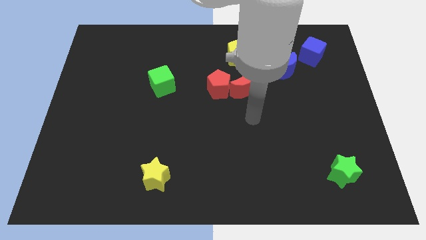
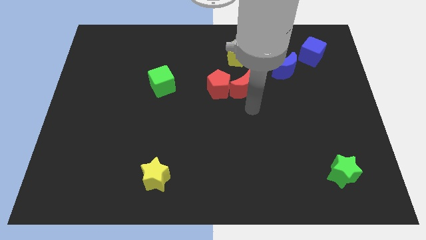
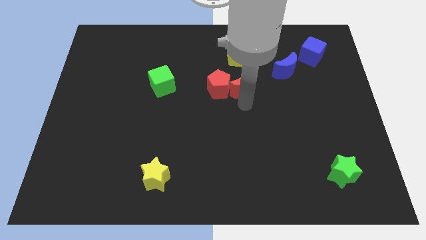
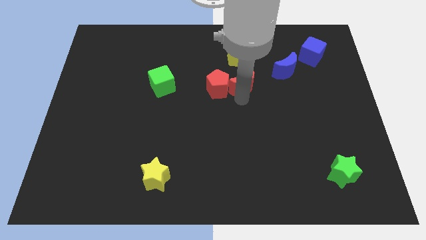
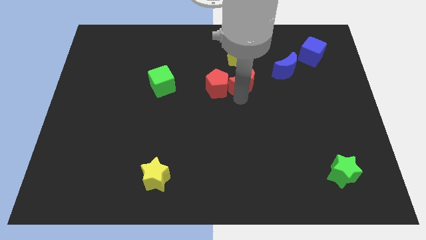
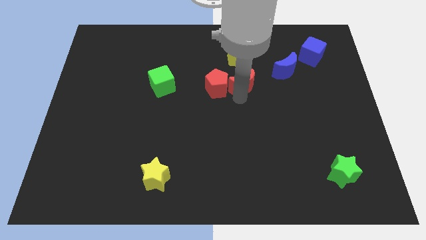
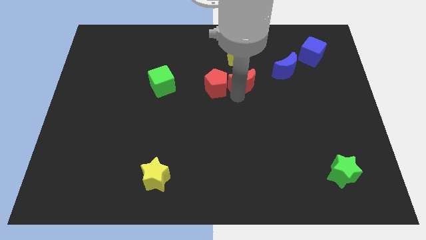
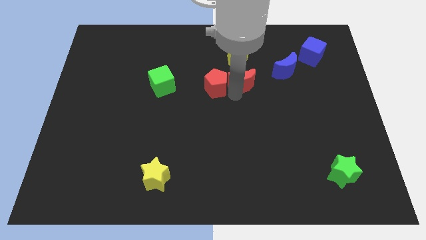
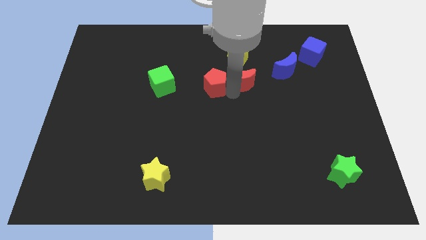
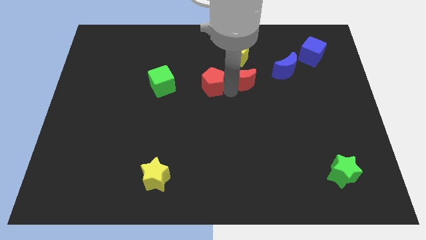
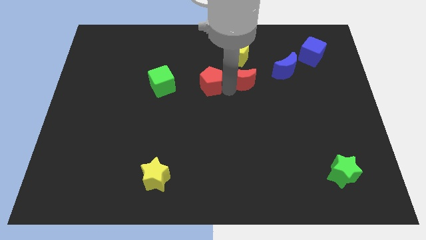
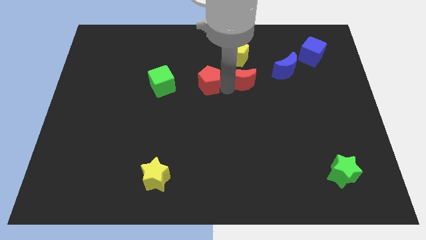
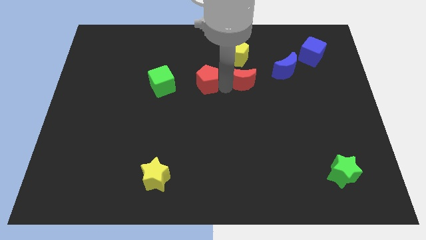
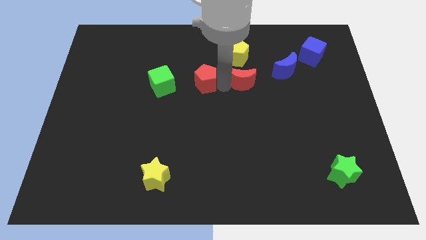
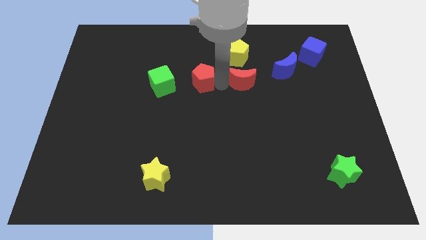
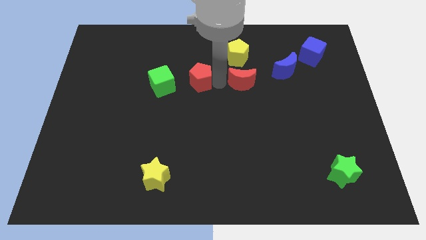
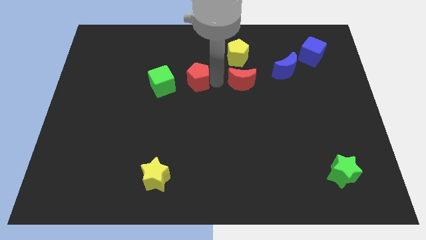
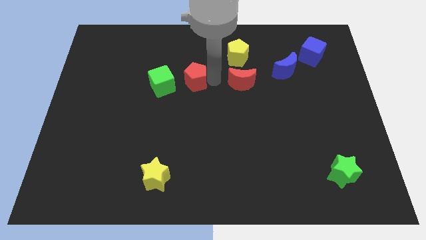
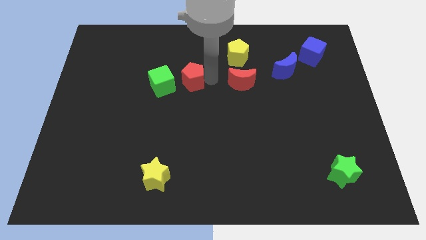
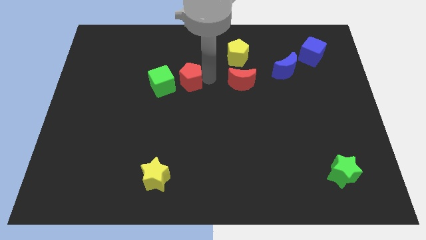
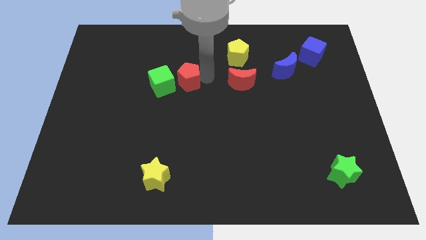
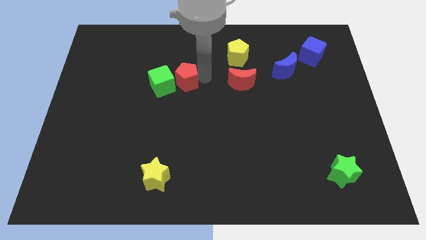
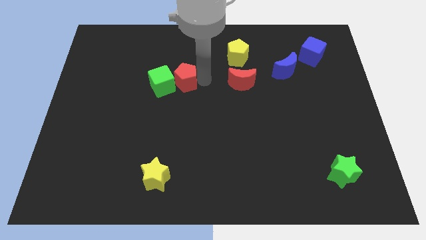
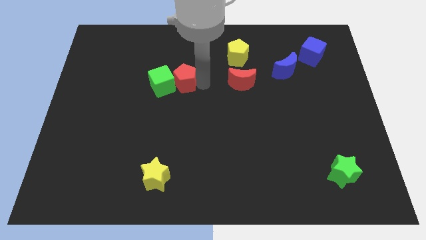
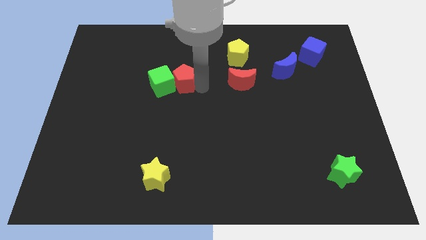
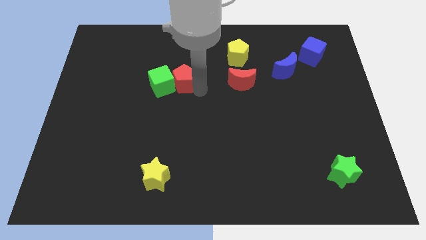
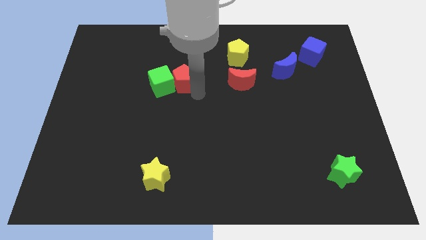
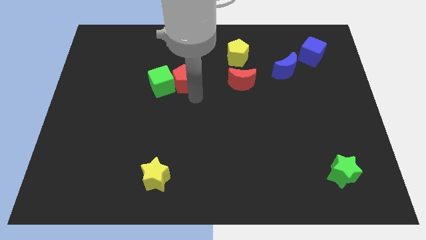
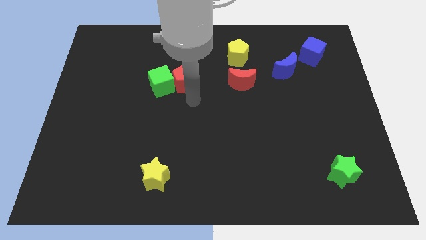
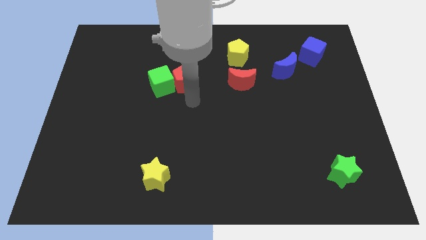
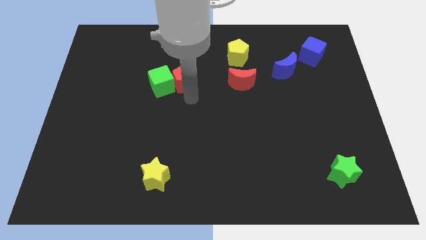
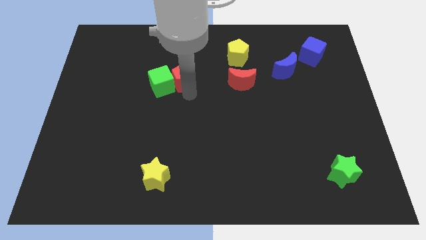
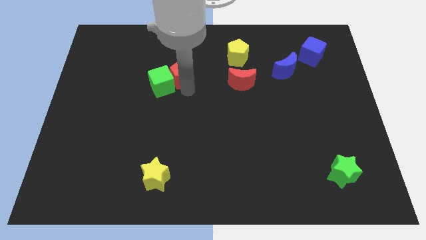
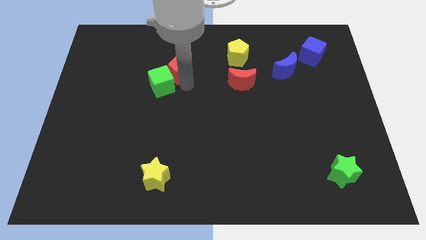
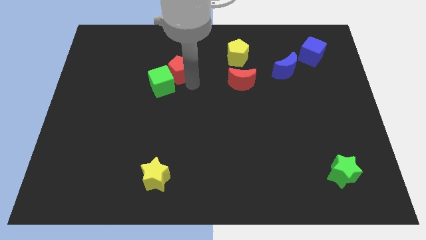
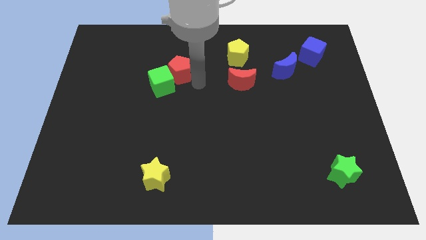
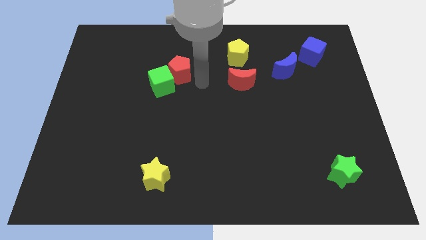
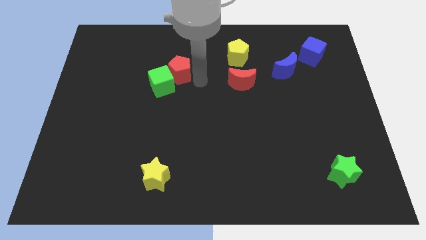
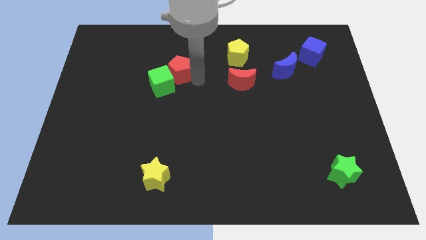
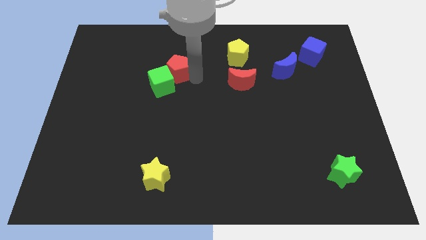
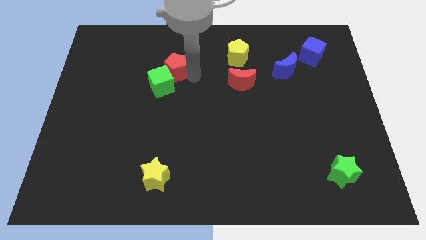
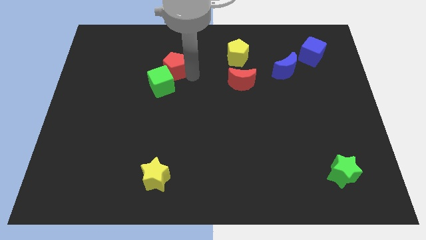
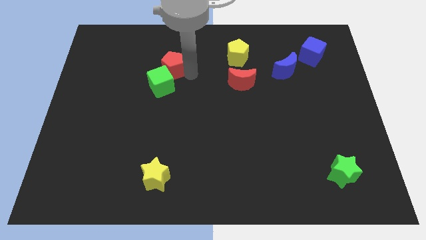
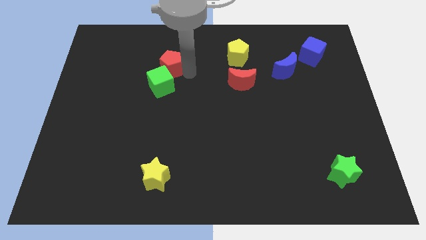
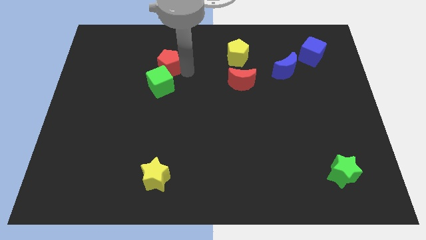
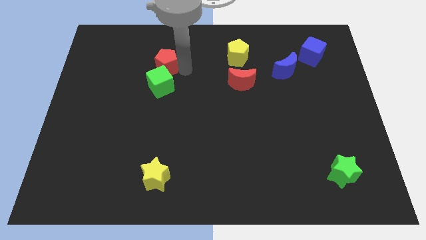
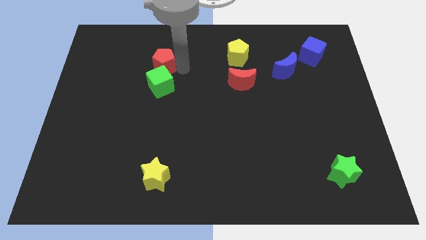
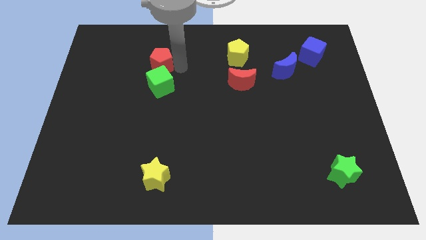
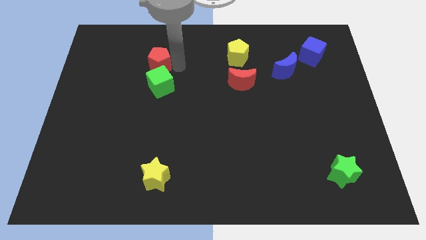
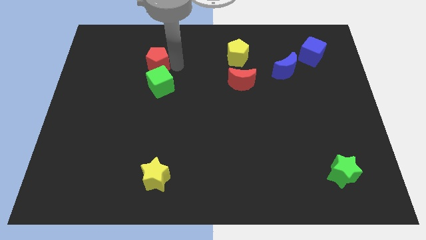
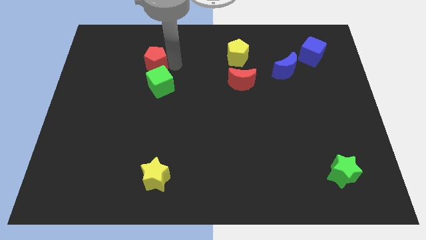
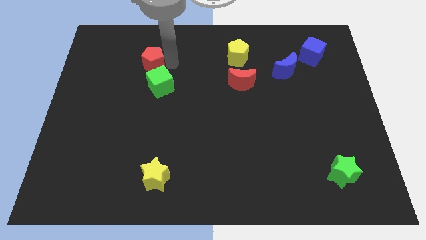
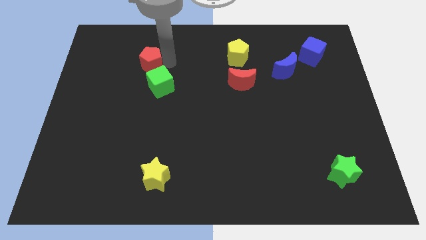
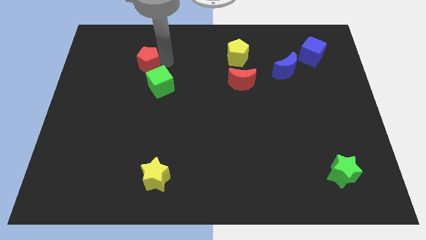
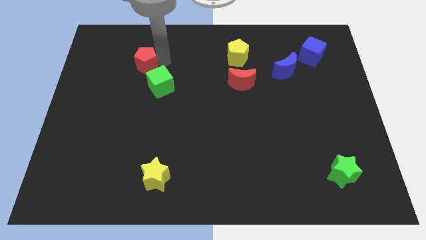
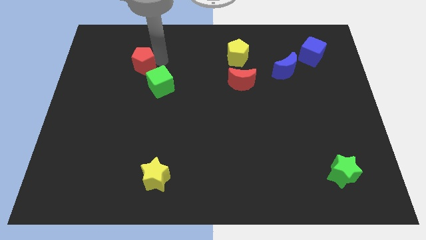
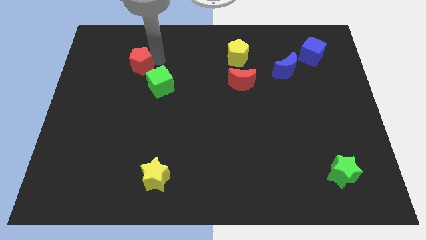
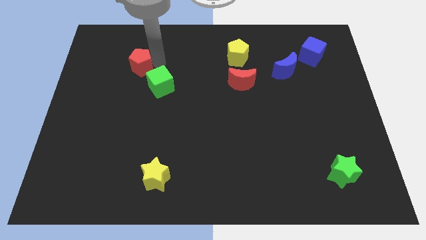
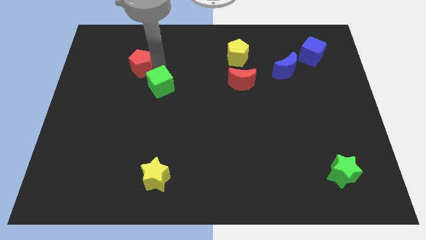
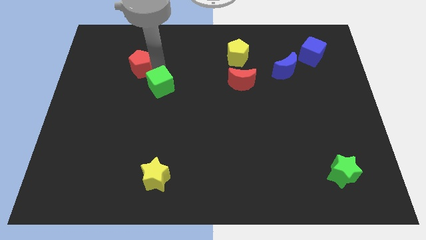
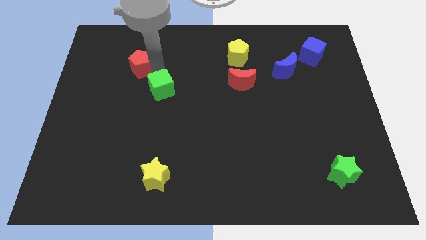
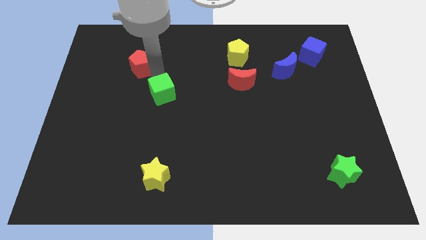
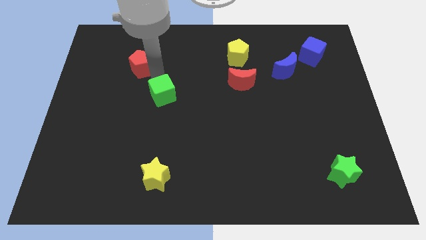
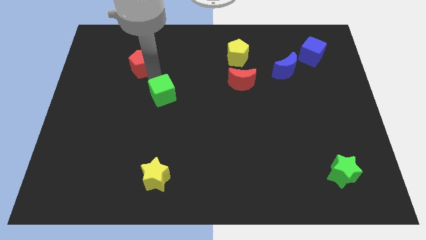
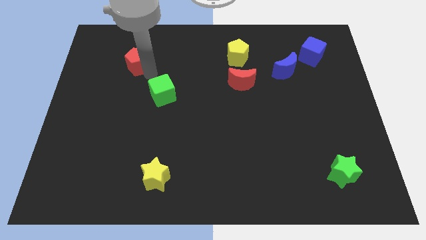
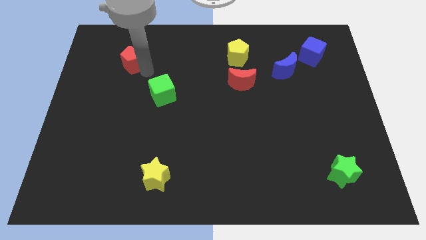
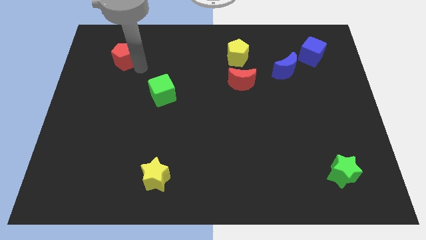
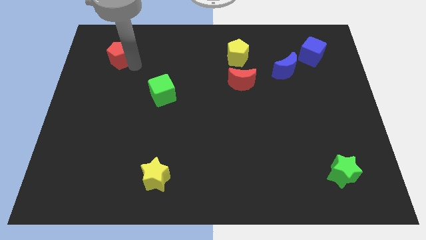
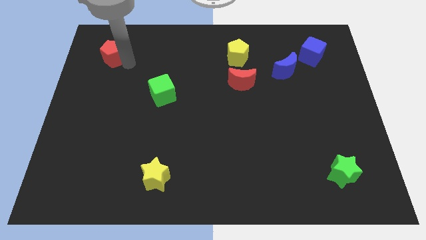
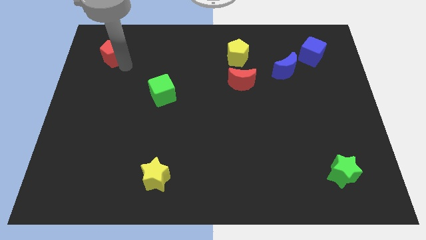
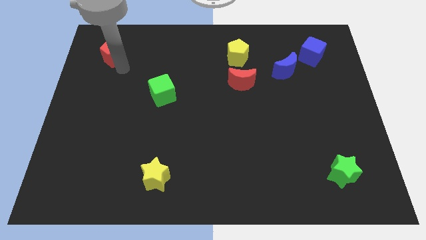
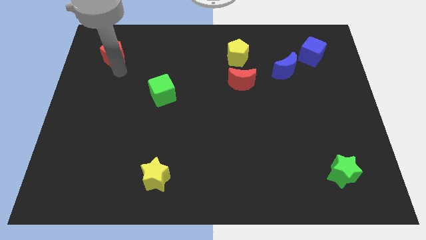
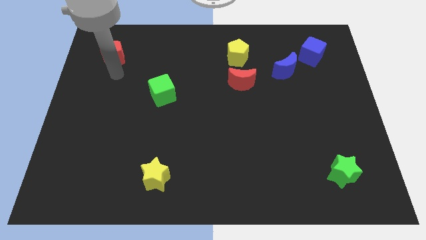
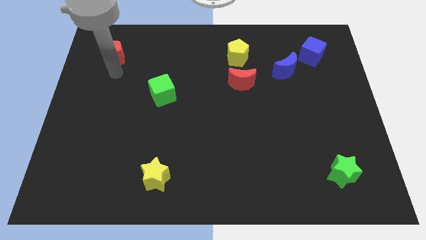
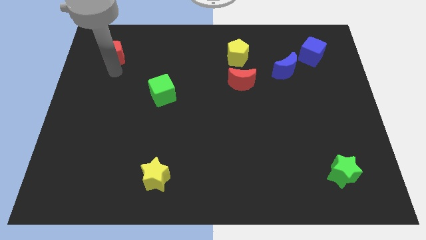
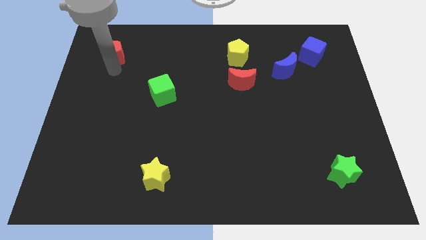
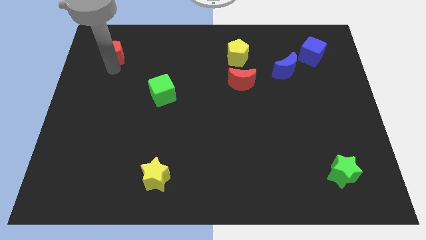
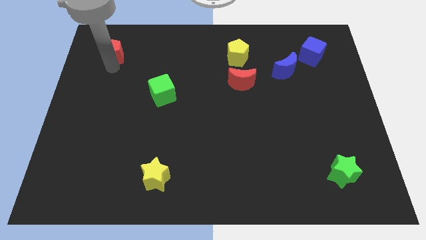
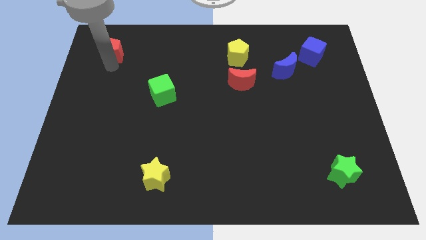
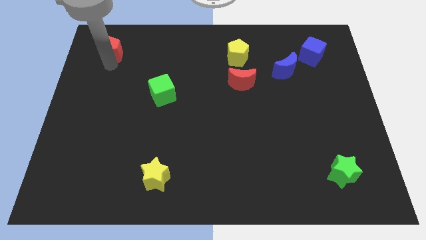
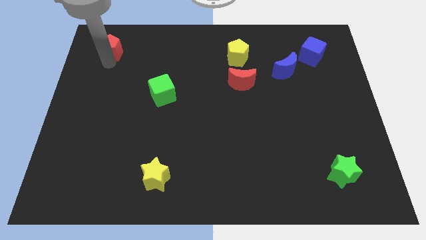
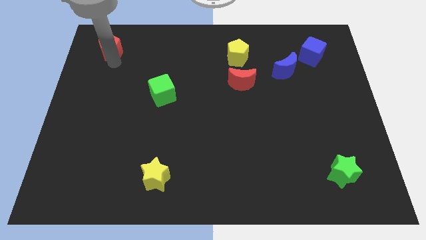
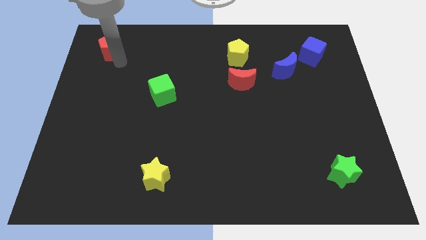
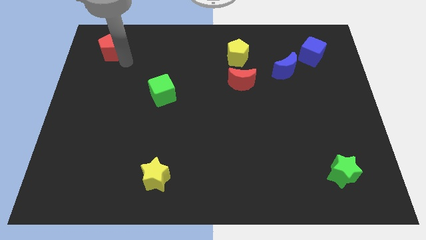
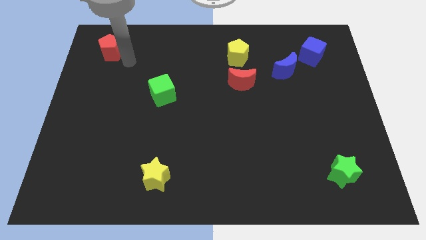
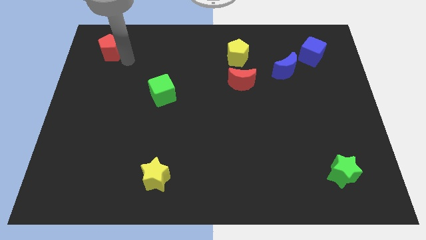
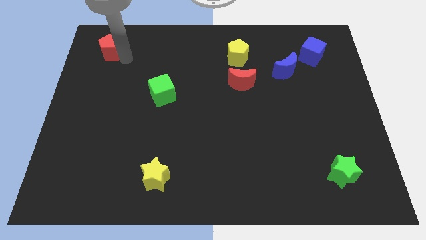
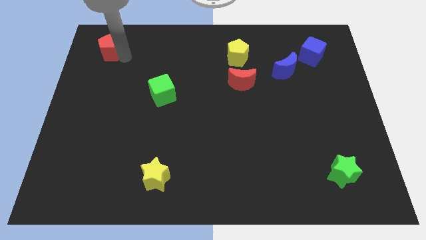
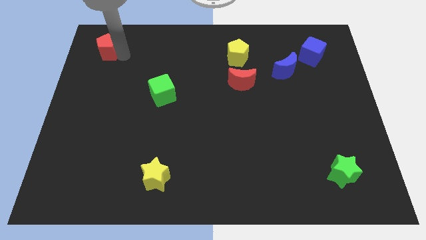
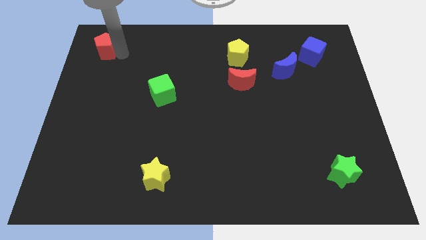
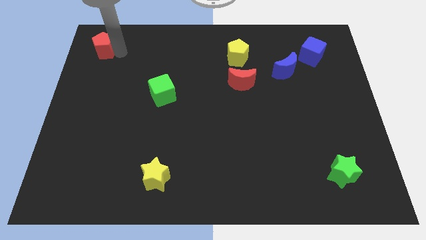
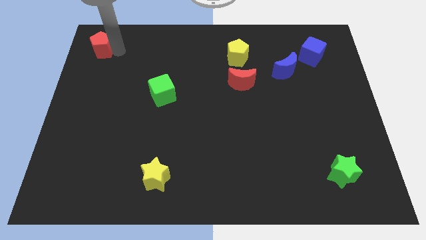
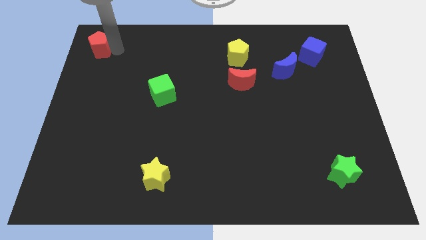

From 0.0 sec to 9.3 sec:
slide the red pentagon to the top left corner
